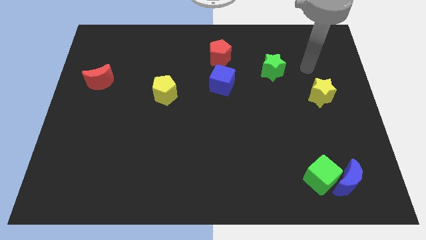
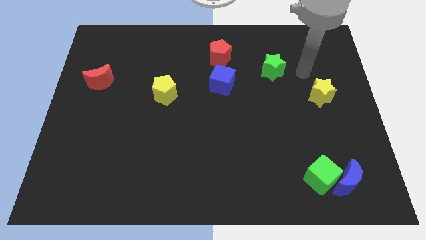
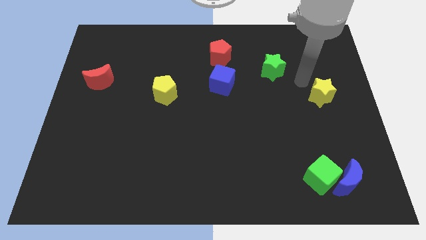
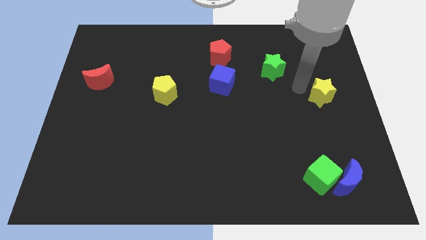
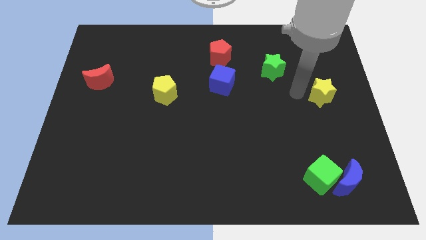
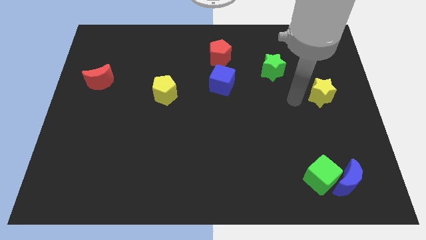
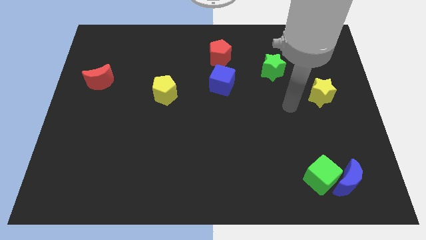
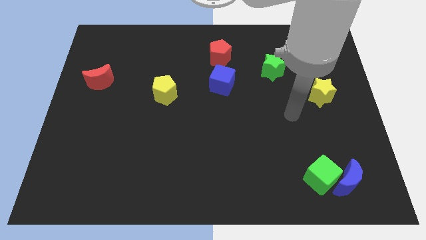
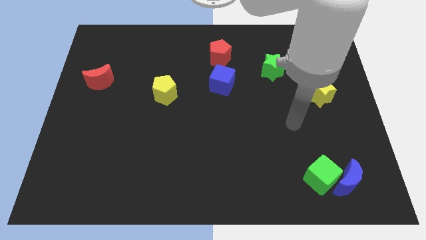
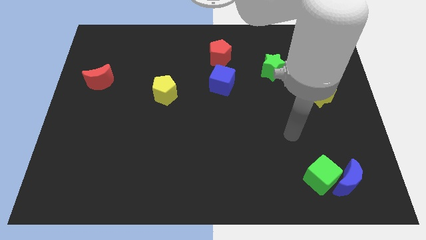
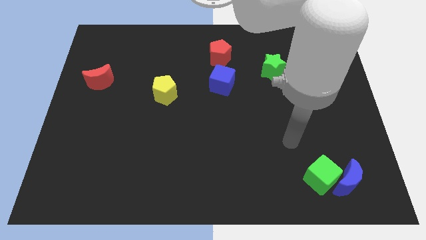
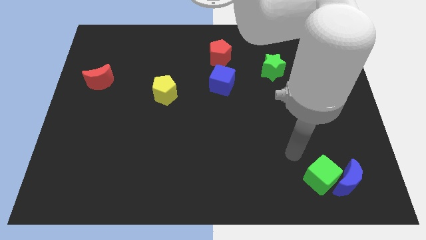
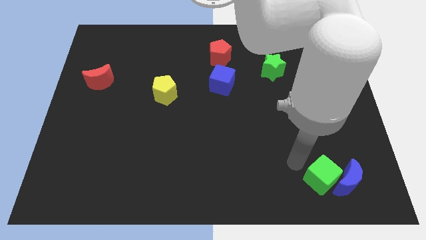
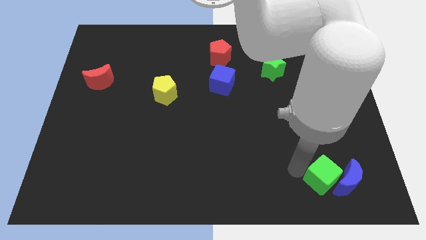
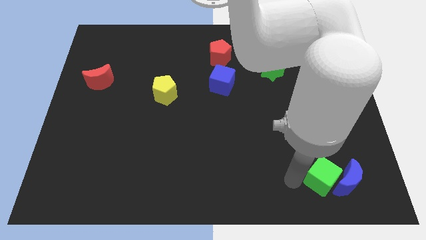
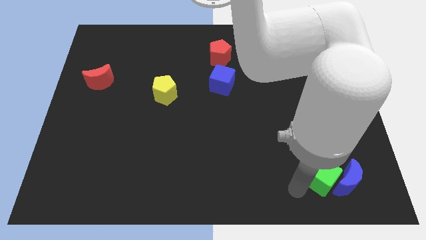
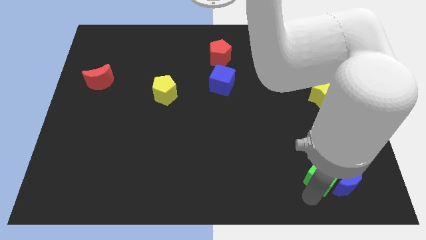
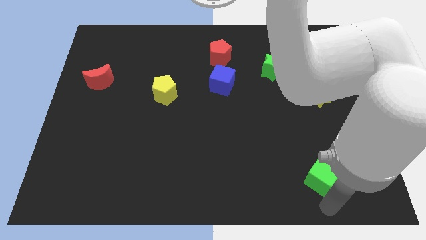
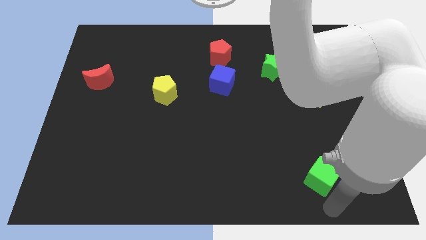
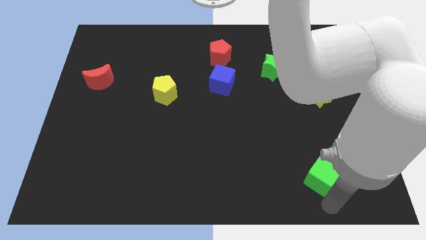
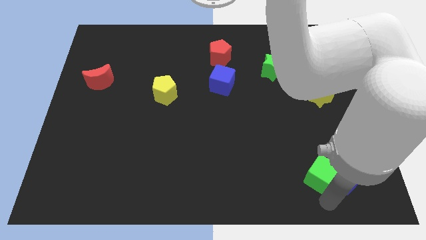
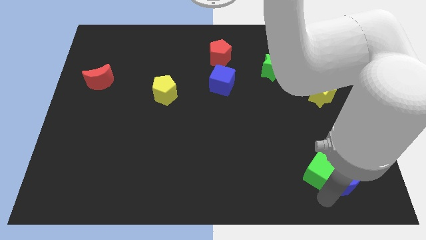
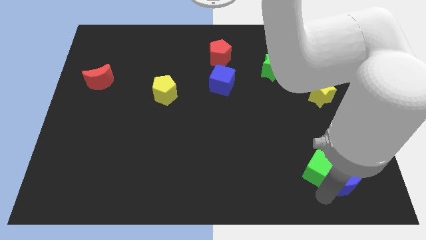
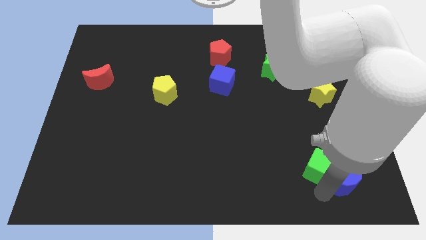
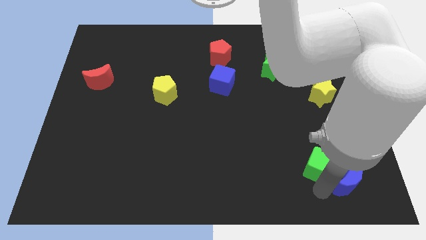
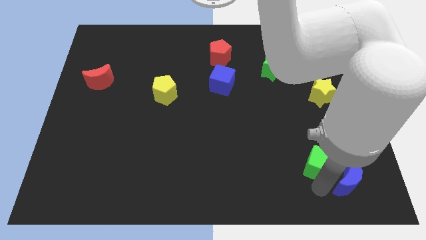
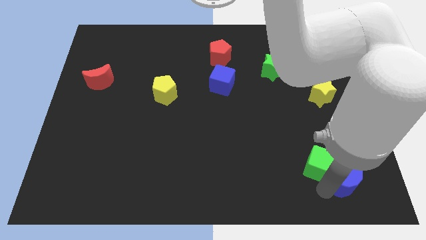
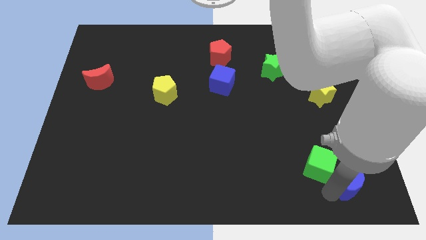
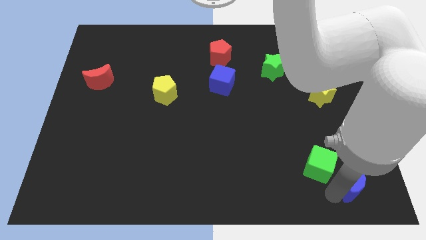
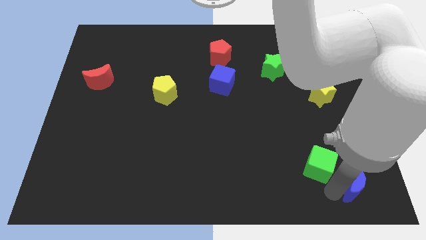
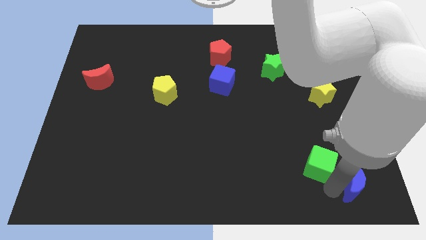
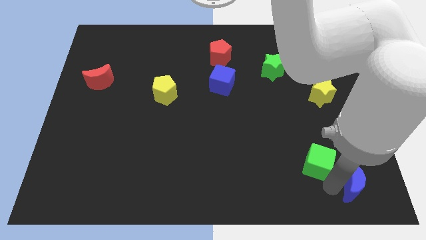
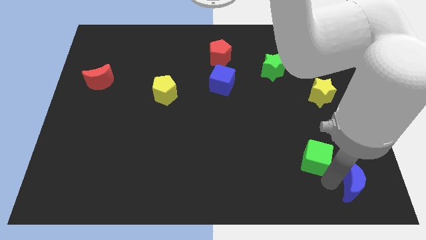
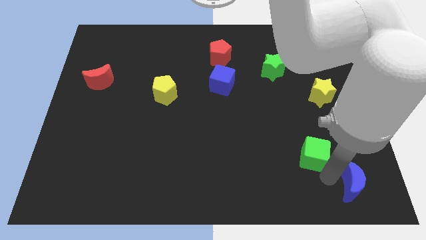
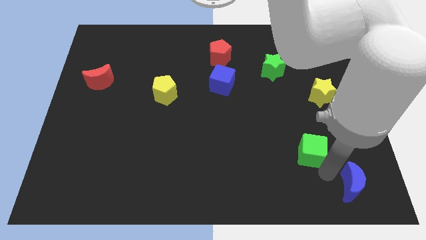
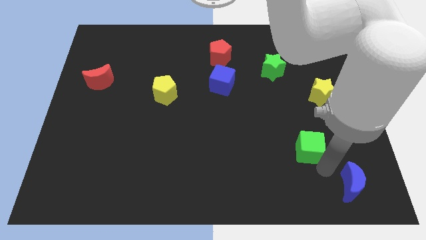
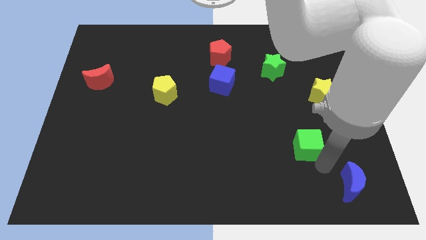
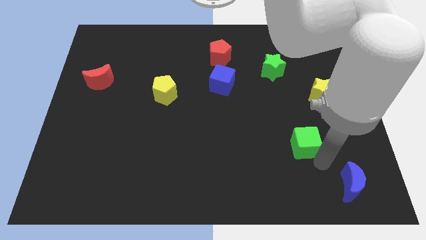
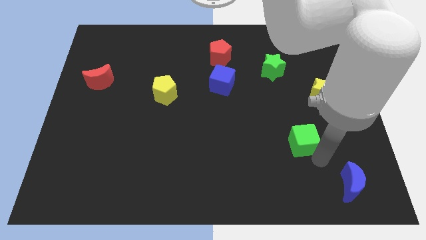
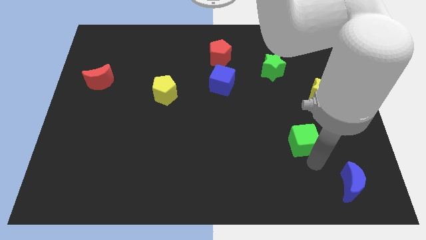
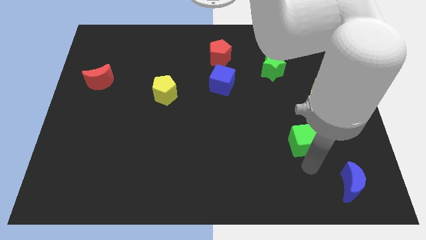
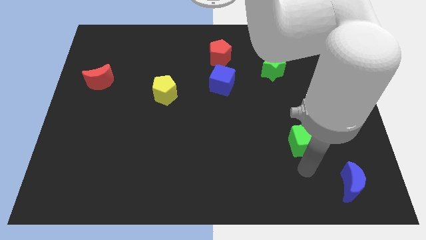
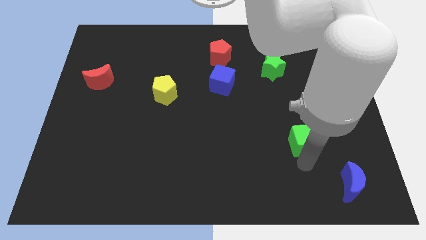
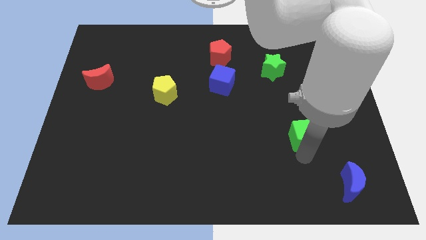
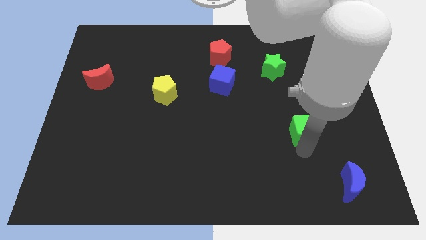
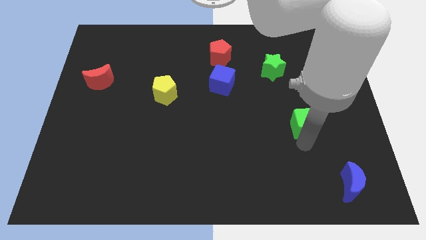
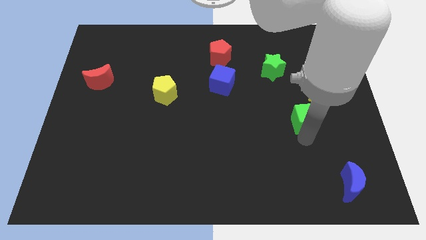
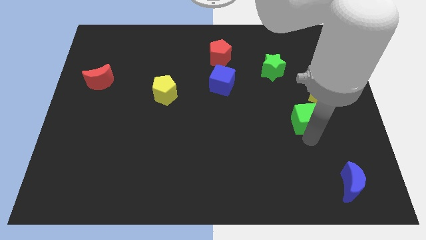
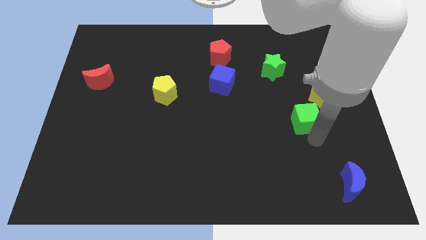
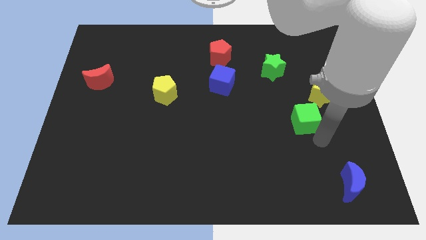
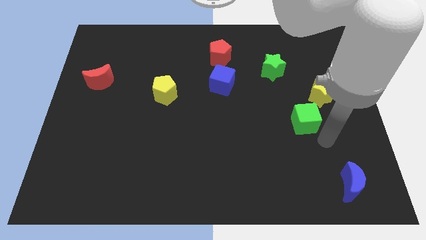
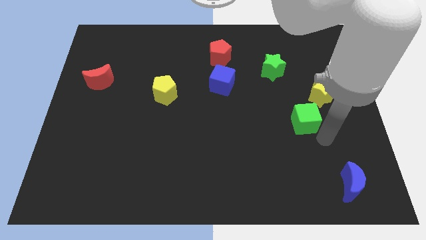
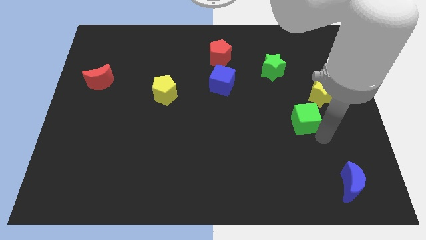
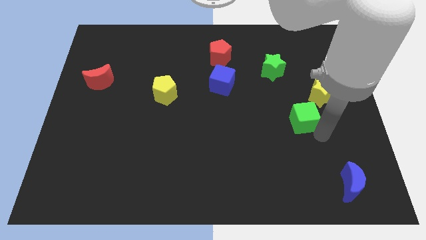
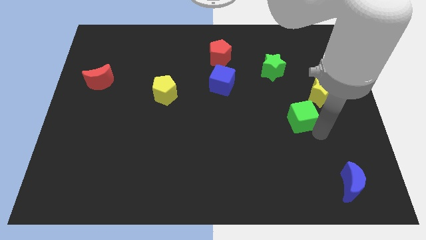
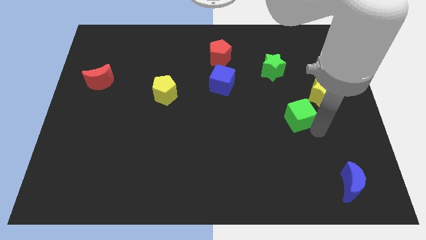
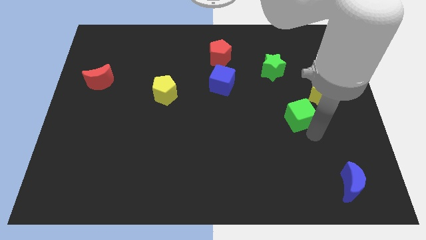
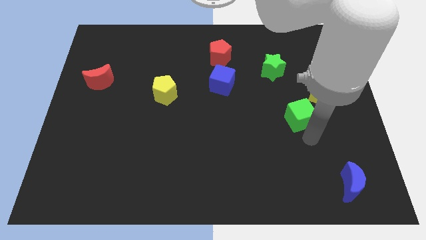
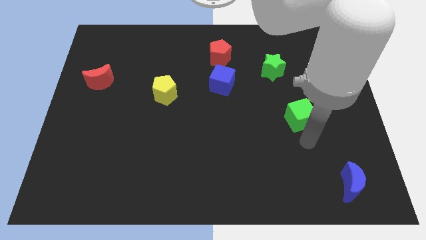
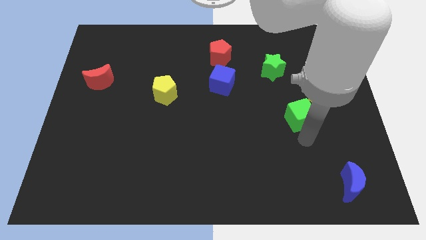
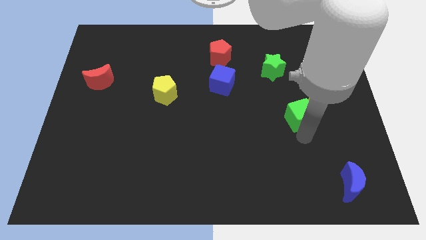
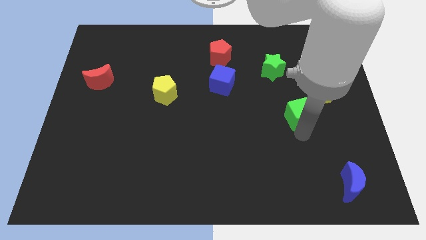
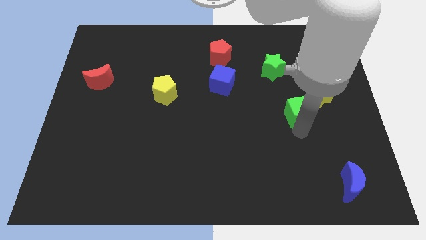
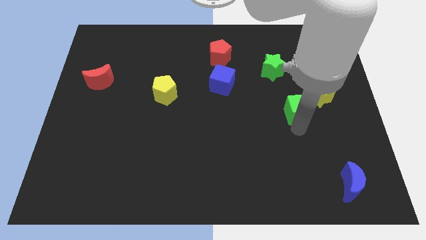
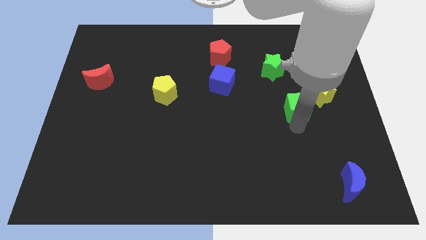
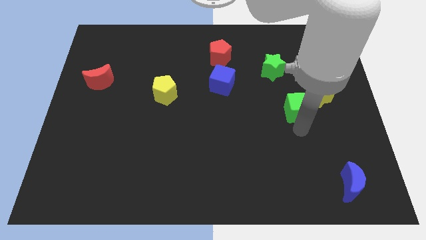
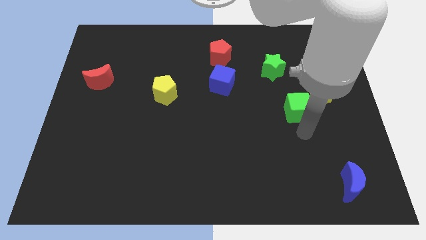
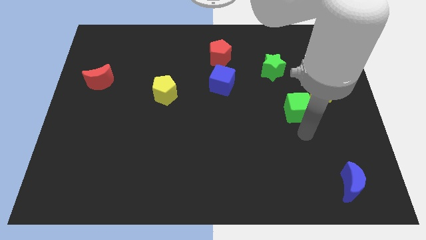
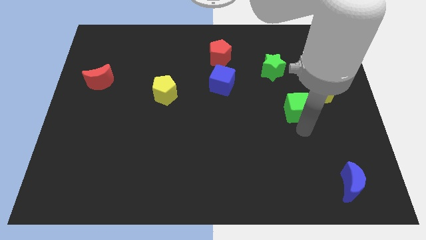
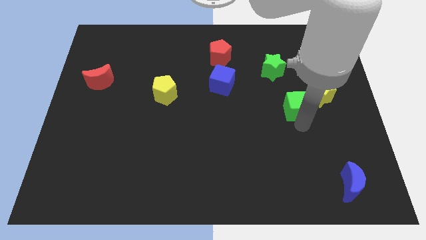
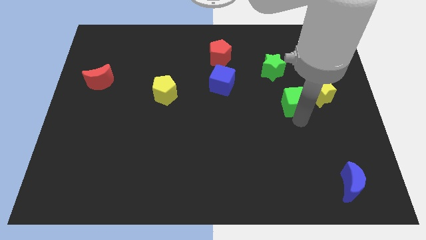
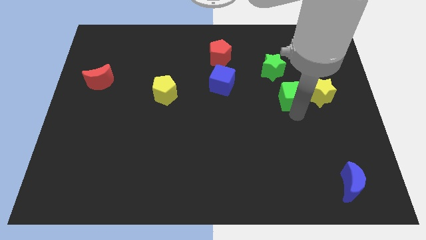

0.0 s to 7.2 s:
slide the green cube upwards

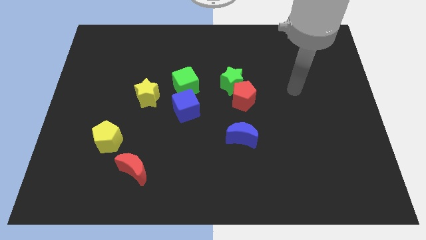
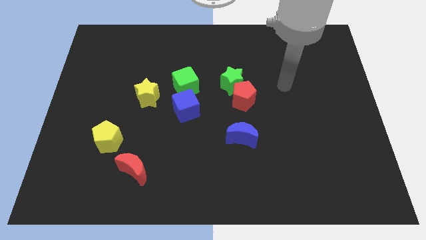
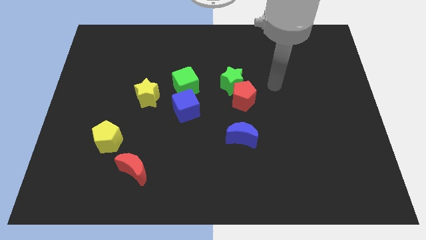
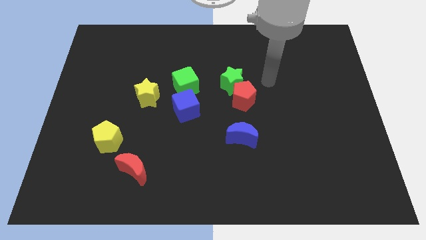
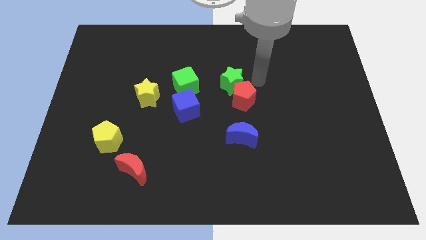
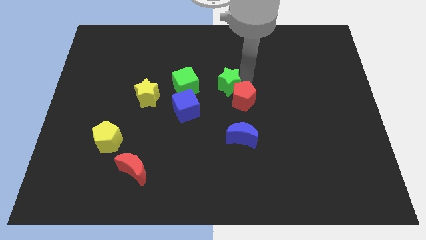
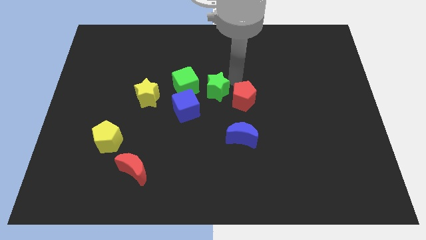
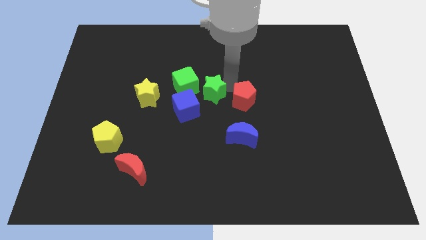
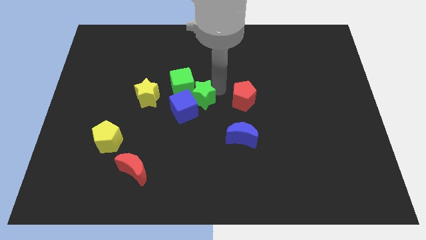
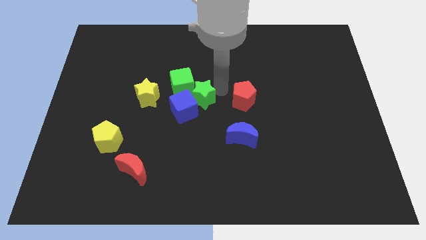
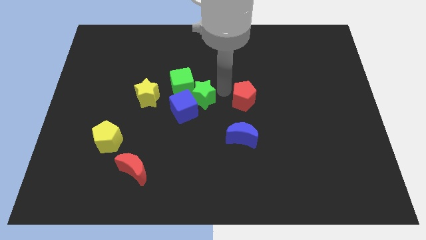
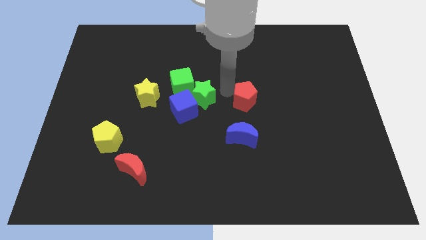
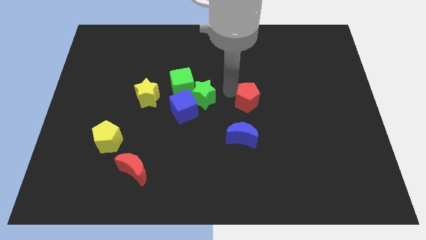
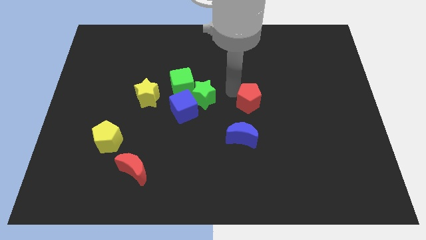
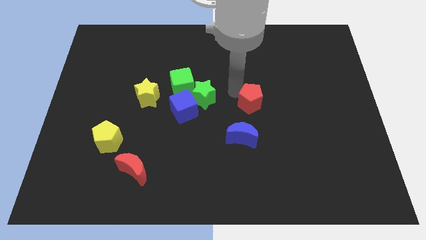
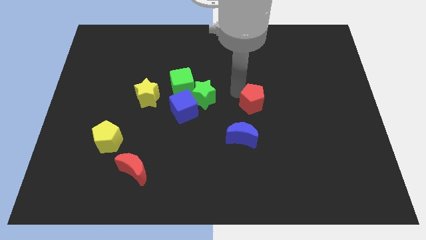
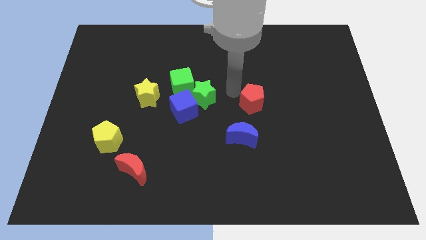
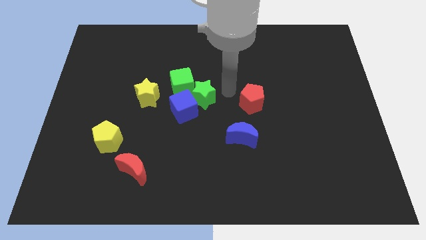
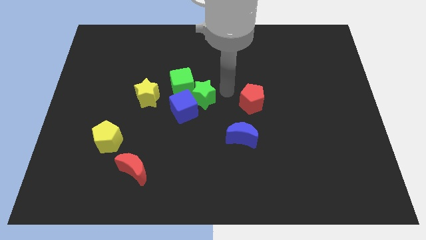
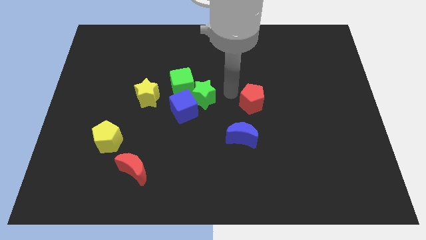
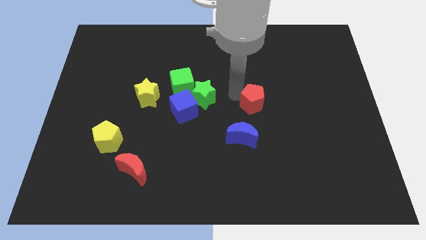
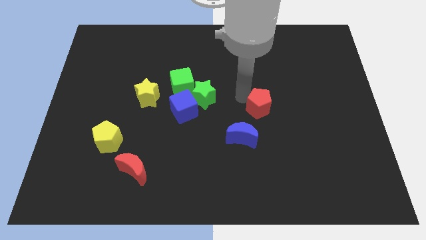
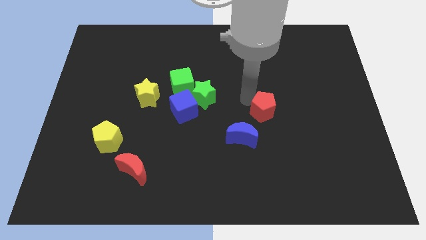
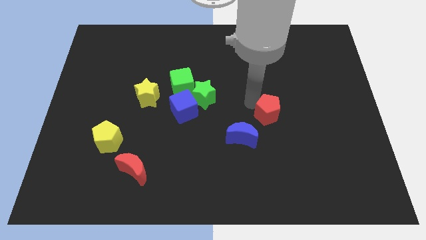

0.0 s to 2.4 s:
slightly move the red pentagon down and right
